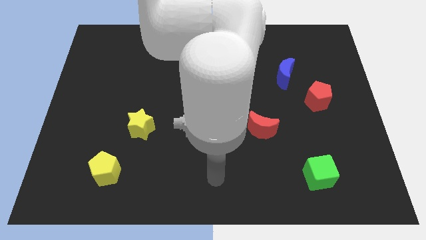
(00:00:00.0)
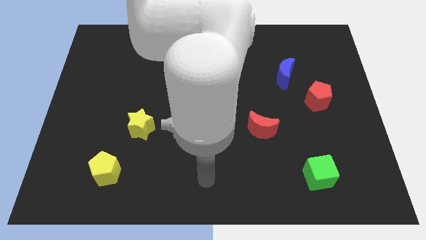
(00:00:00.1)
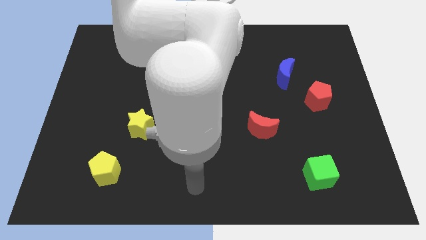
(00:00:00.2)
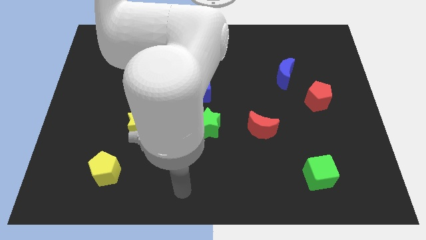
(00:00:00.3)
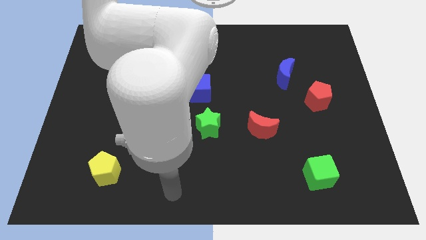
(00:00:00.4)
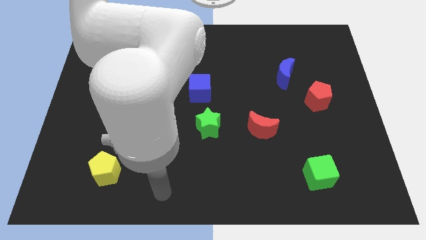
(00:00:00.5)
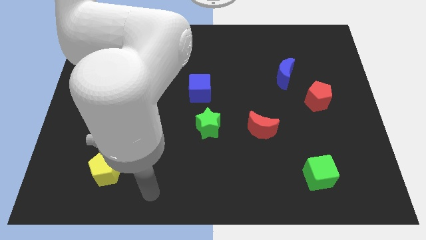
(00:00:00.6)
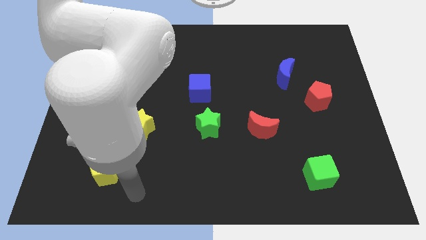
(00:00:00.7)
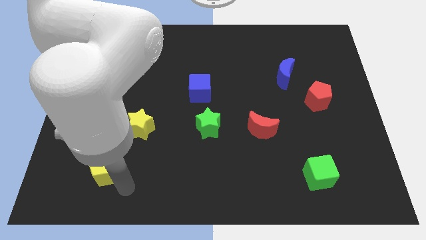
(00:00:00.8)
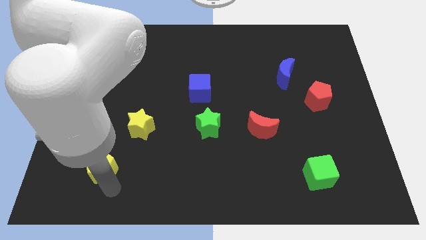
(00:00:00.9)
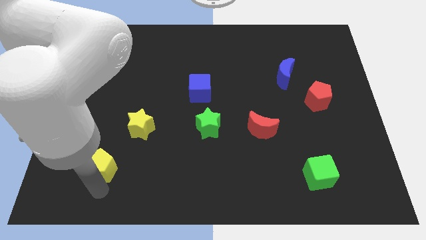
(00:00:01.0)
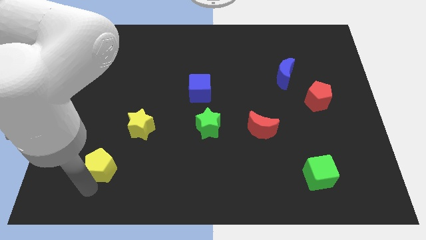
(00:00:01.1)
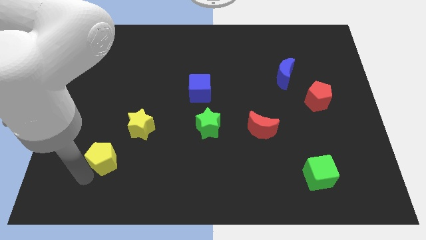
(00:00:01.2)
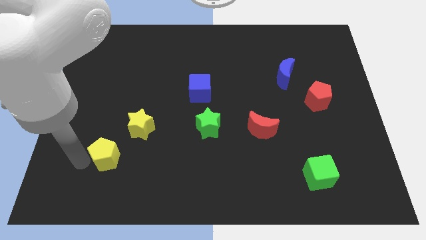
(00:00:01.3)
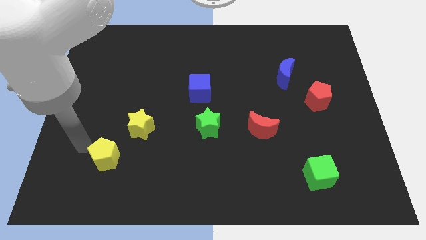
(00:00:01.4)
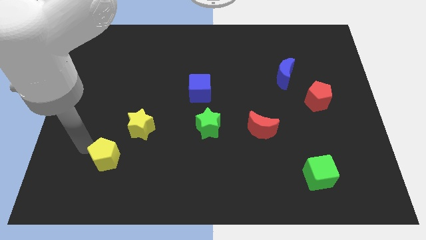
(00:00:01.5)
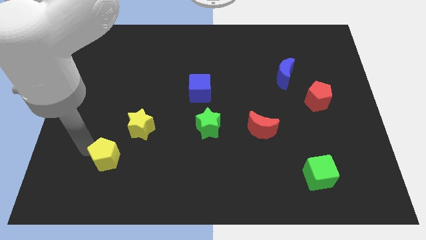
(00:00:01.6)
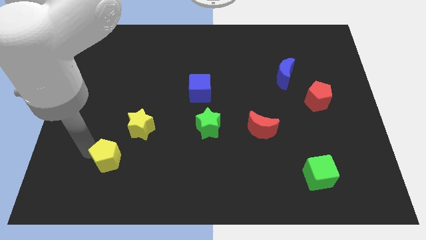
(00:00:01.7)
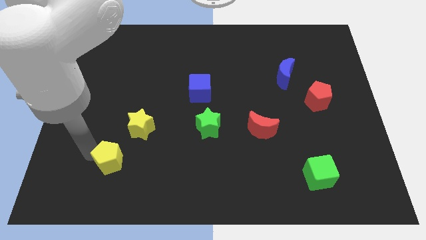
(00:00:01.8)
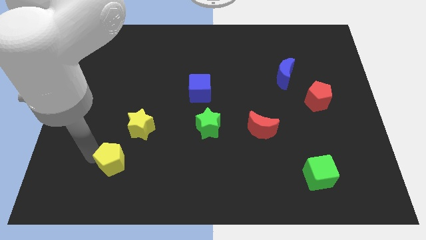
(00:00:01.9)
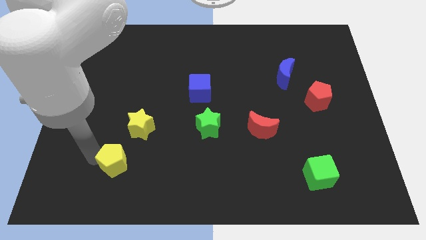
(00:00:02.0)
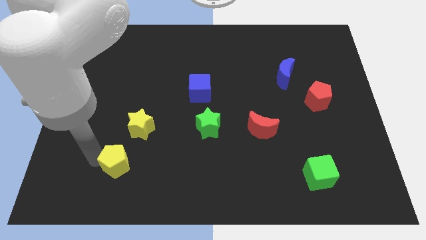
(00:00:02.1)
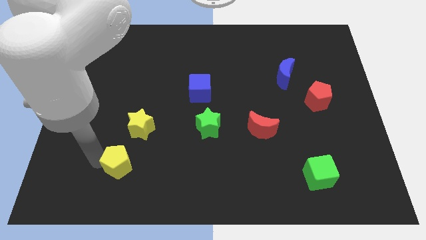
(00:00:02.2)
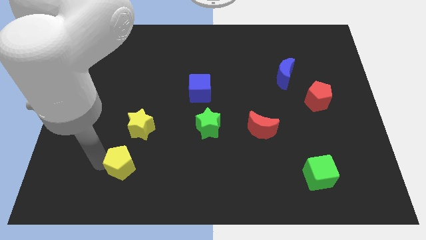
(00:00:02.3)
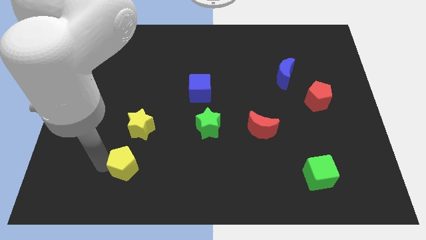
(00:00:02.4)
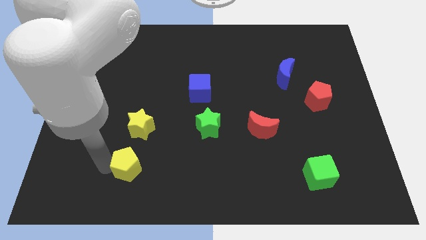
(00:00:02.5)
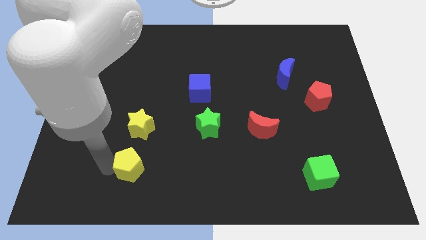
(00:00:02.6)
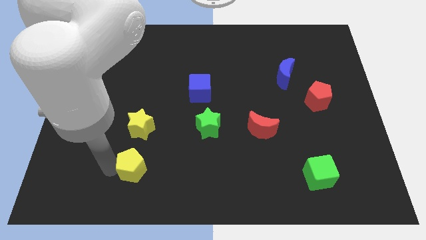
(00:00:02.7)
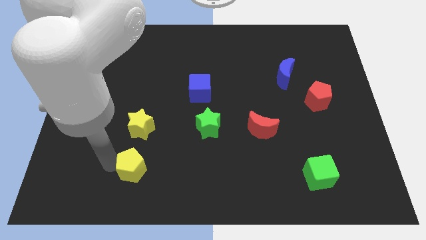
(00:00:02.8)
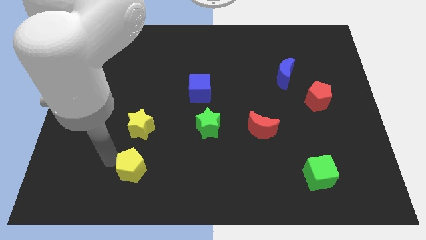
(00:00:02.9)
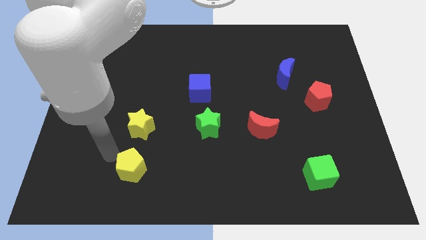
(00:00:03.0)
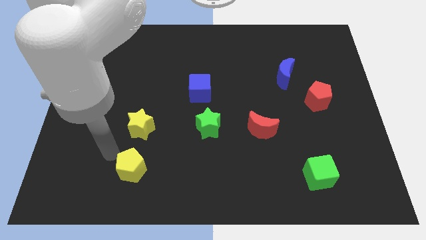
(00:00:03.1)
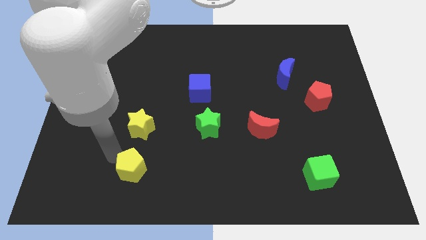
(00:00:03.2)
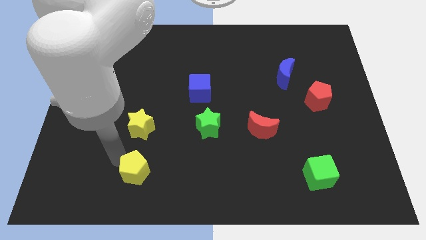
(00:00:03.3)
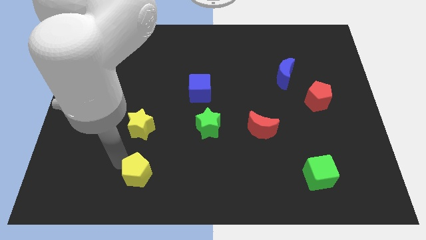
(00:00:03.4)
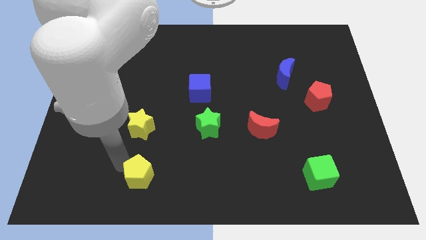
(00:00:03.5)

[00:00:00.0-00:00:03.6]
slide the yellow pentagon right somewhat

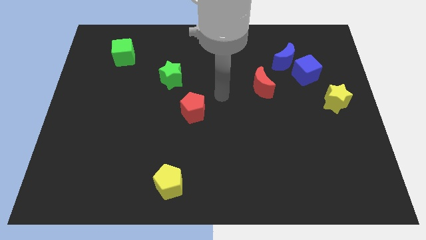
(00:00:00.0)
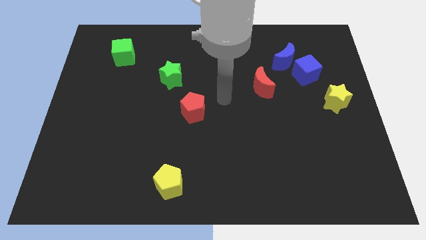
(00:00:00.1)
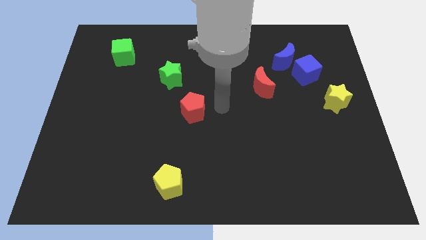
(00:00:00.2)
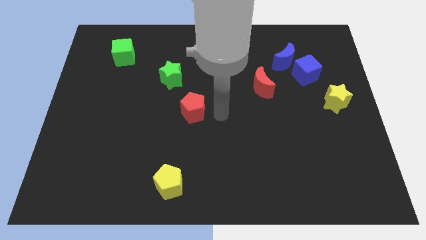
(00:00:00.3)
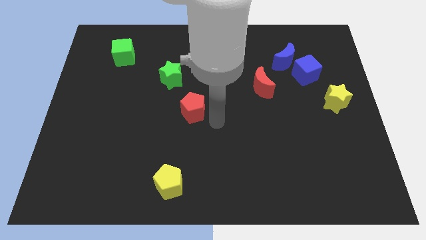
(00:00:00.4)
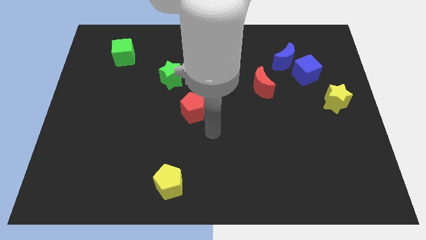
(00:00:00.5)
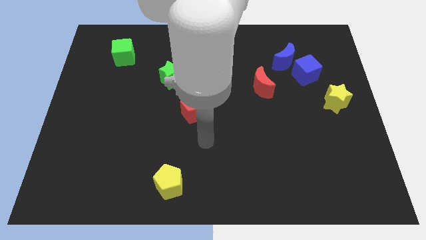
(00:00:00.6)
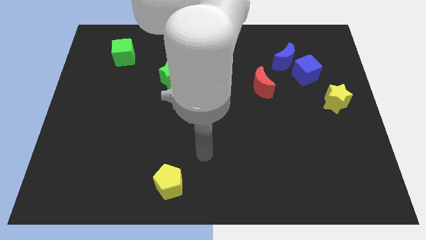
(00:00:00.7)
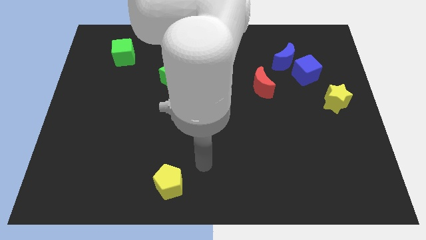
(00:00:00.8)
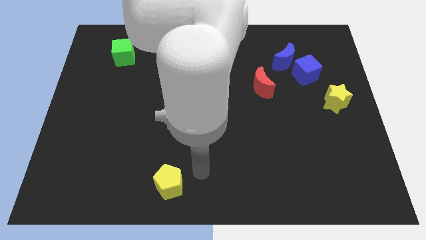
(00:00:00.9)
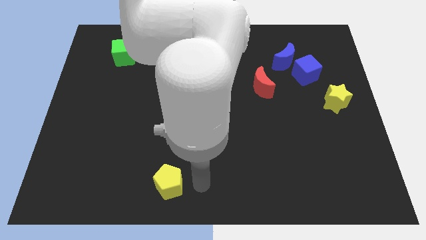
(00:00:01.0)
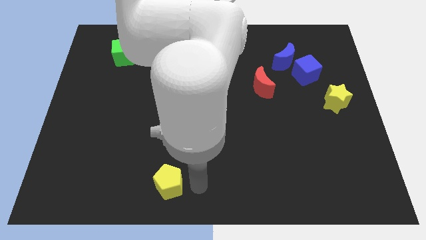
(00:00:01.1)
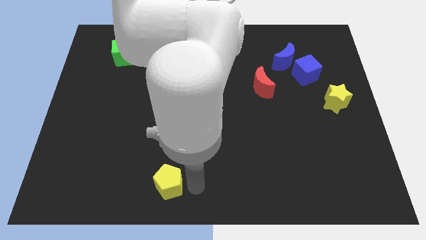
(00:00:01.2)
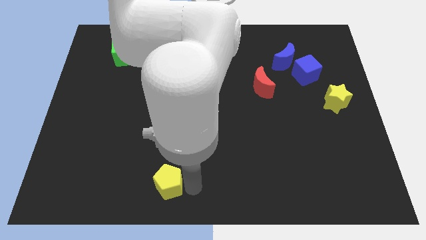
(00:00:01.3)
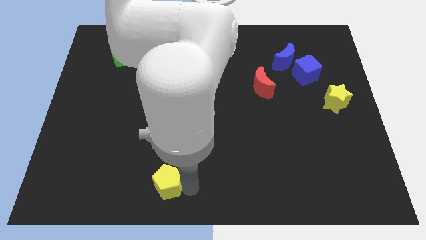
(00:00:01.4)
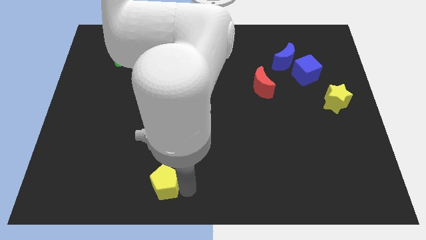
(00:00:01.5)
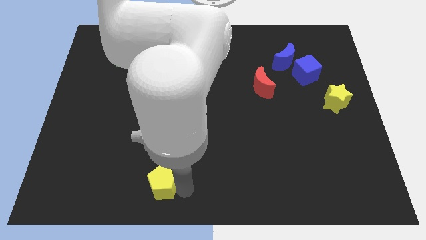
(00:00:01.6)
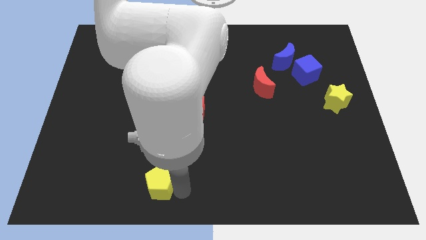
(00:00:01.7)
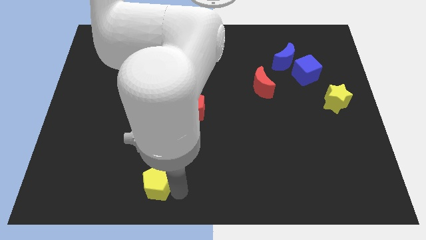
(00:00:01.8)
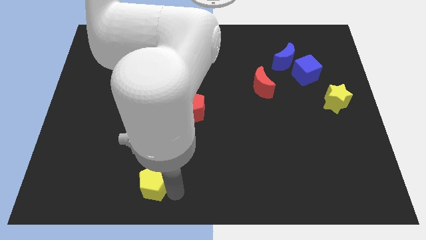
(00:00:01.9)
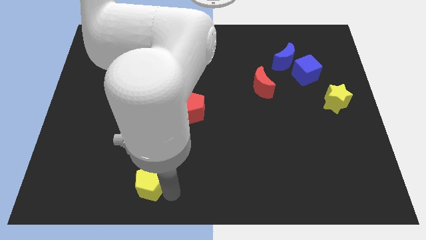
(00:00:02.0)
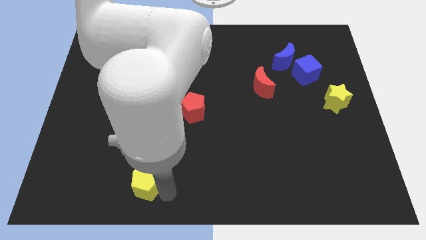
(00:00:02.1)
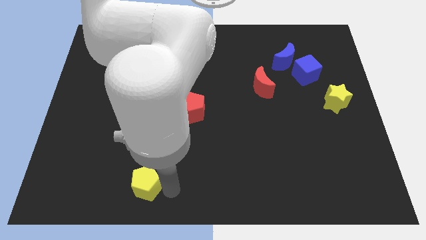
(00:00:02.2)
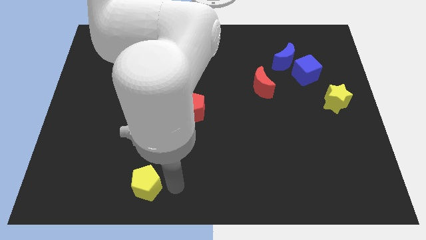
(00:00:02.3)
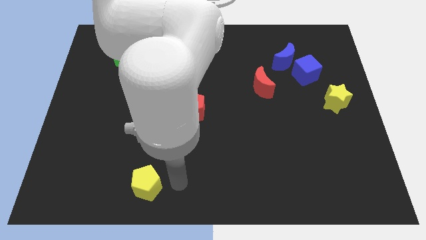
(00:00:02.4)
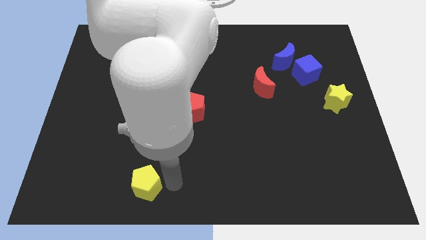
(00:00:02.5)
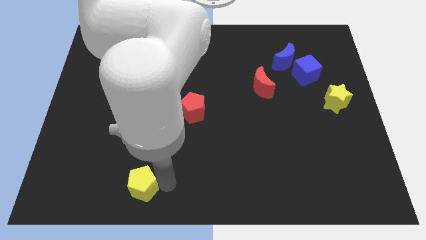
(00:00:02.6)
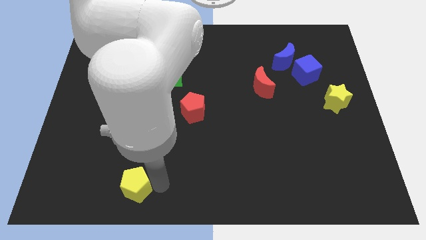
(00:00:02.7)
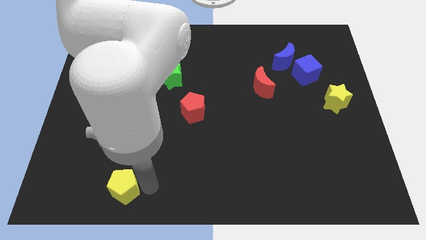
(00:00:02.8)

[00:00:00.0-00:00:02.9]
slide the yellow pentagon a little bit left

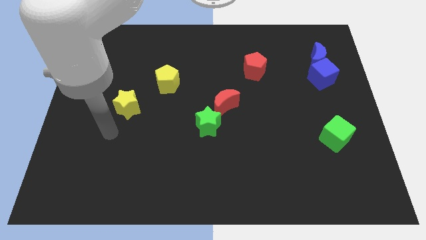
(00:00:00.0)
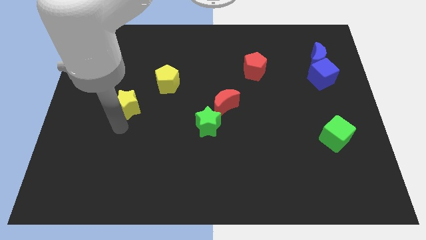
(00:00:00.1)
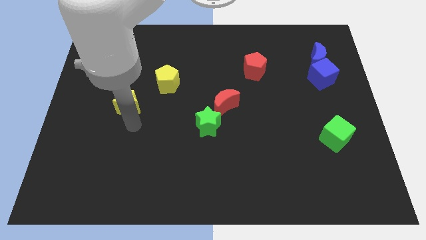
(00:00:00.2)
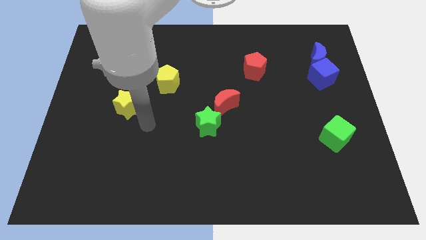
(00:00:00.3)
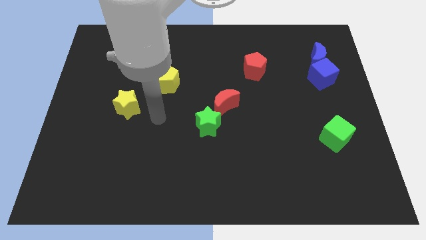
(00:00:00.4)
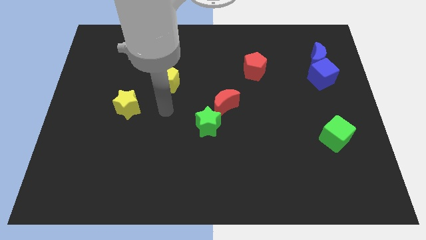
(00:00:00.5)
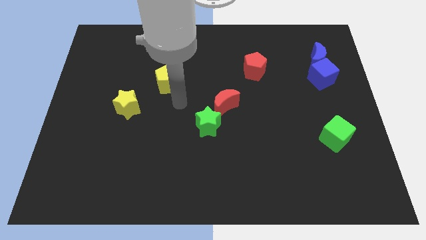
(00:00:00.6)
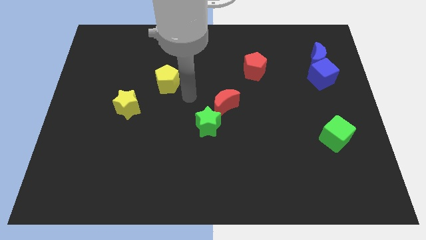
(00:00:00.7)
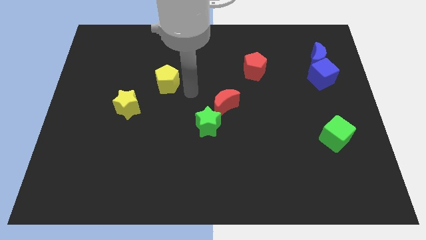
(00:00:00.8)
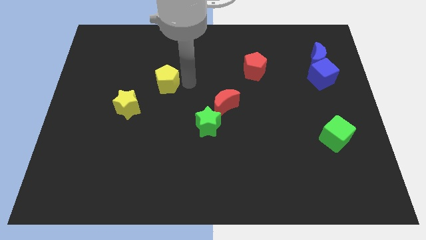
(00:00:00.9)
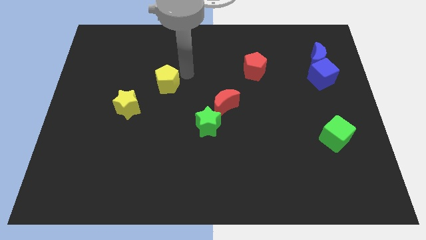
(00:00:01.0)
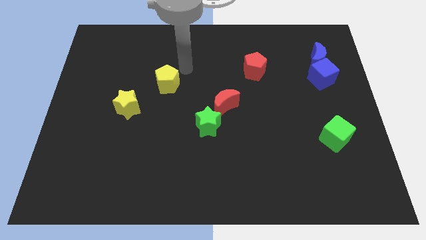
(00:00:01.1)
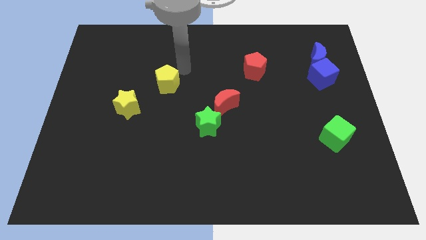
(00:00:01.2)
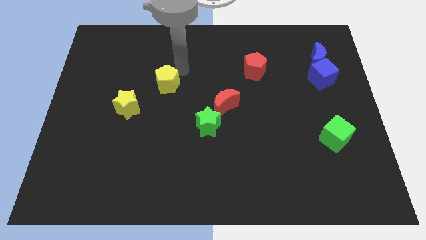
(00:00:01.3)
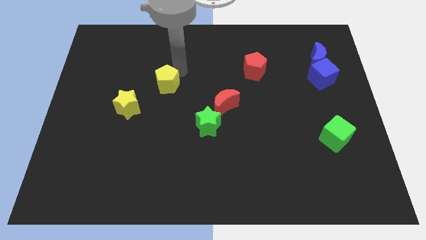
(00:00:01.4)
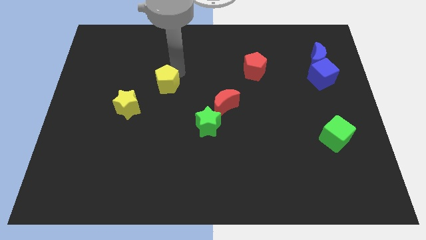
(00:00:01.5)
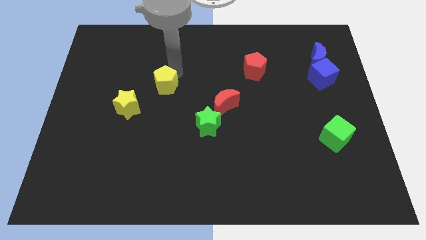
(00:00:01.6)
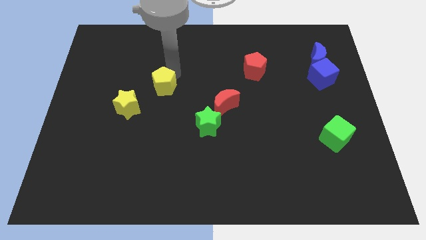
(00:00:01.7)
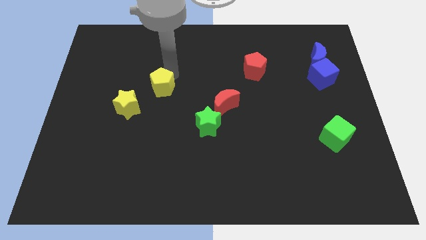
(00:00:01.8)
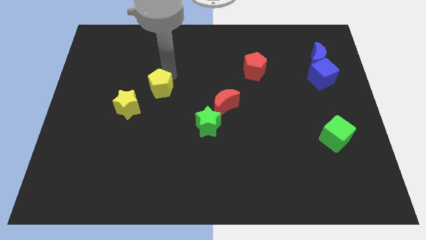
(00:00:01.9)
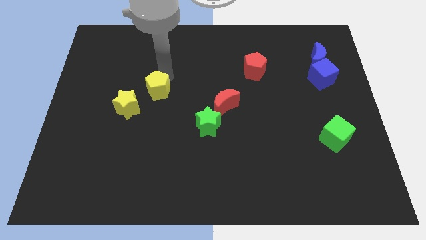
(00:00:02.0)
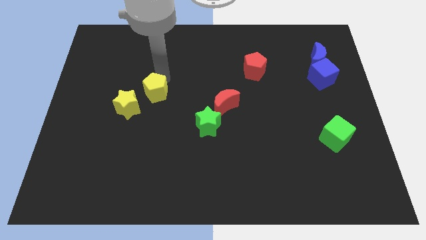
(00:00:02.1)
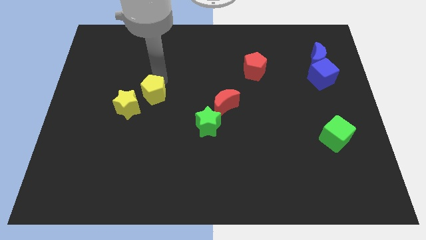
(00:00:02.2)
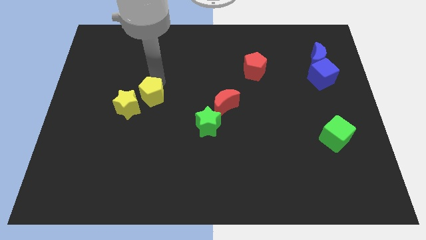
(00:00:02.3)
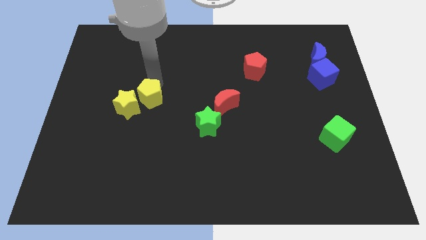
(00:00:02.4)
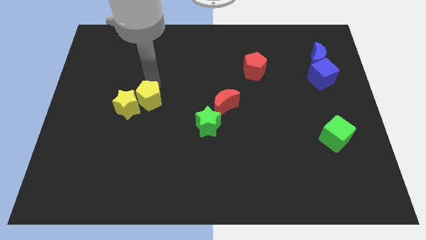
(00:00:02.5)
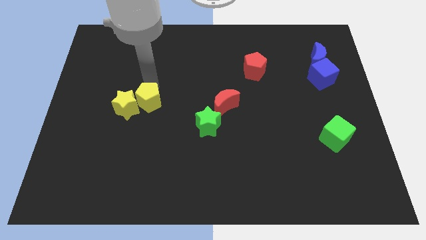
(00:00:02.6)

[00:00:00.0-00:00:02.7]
slightly move the yellow pentagon down and left diagonally
